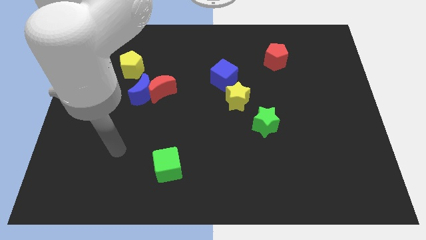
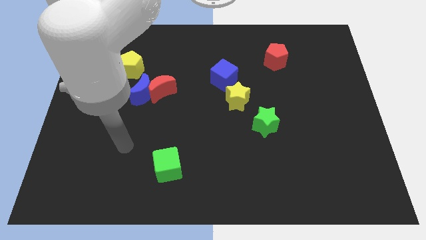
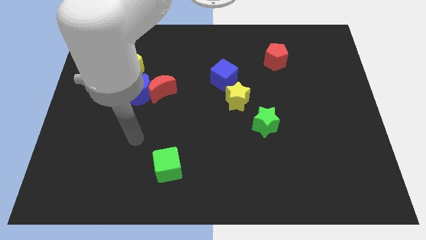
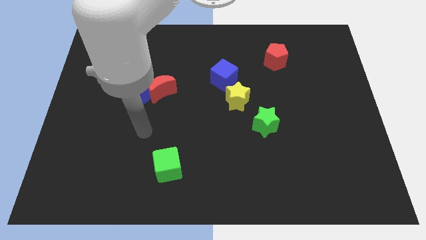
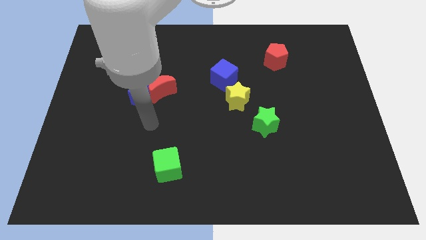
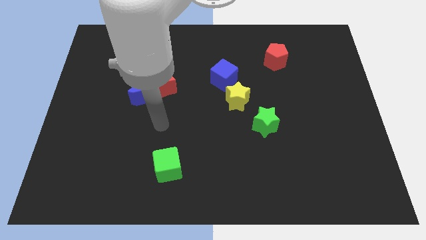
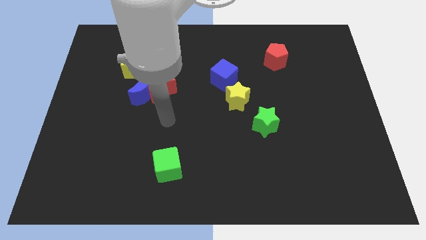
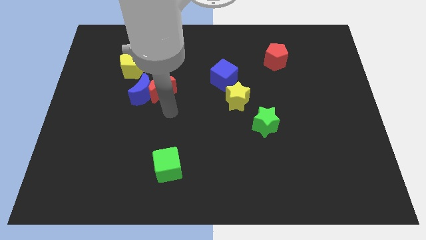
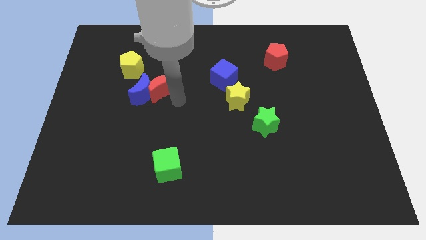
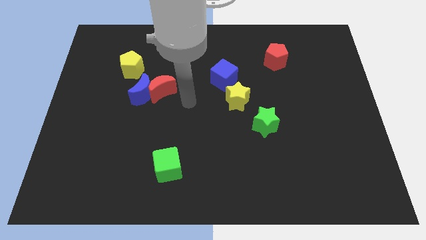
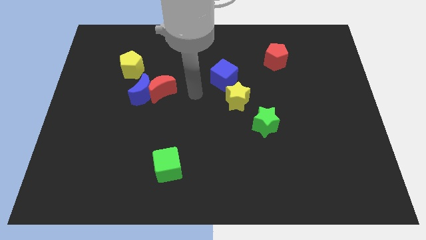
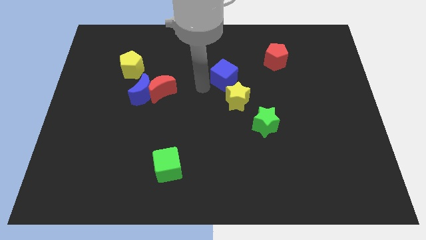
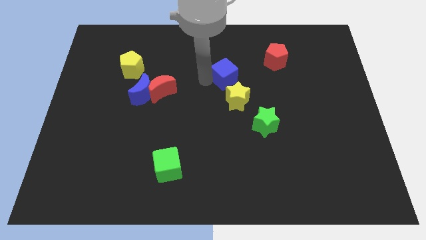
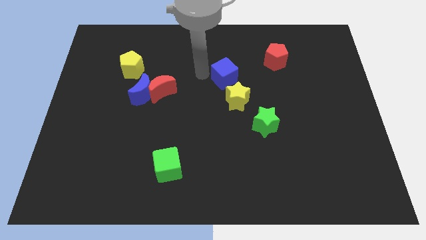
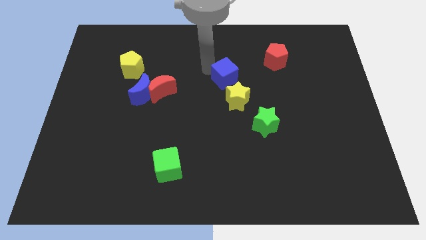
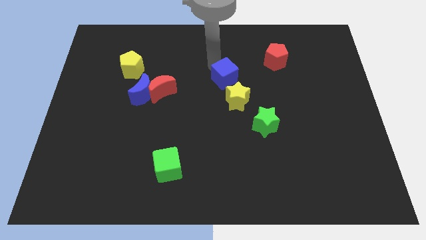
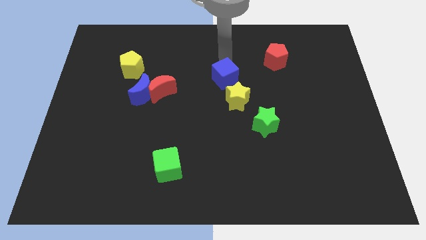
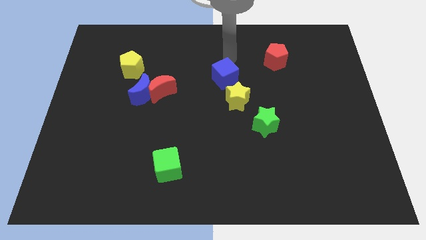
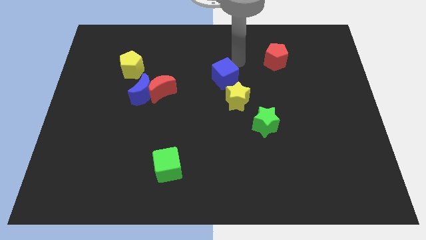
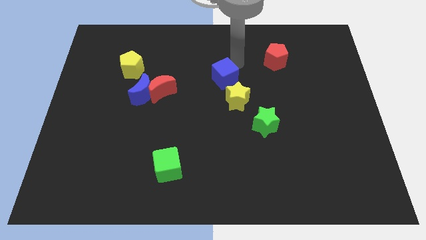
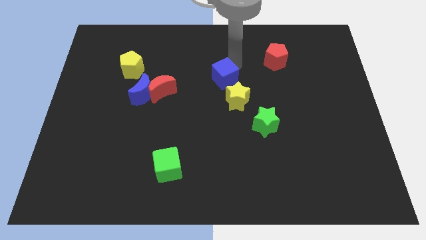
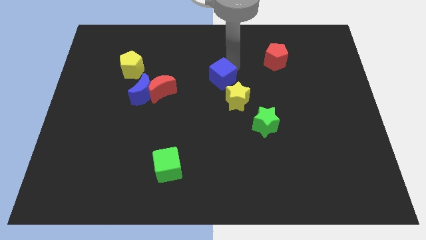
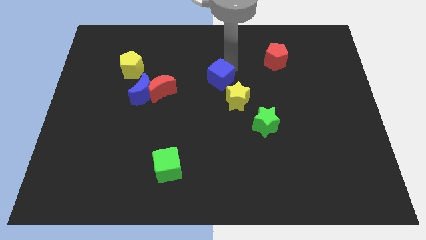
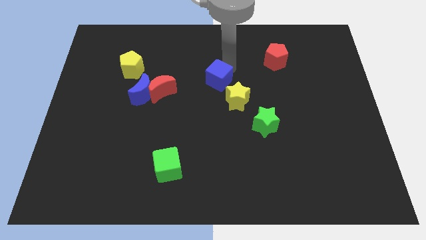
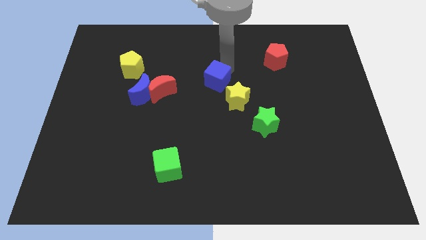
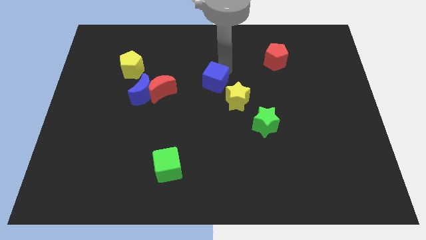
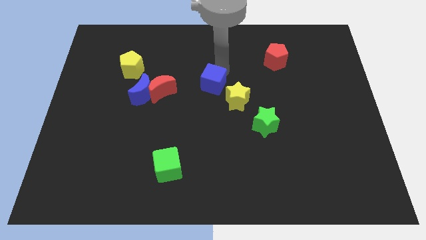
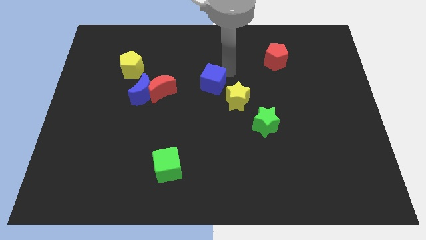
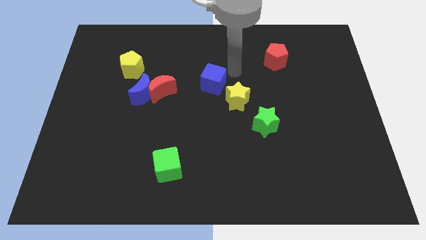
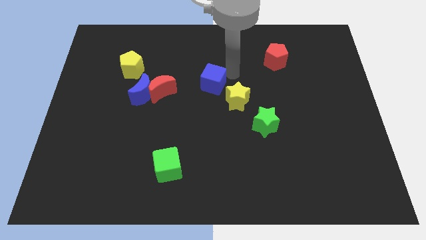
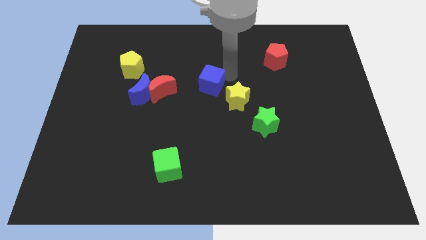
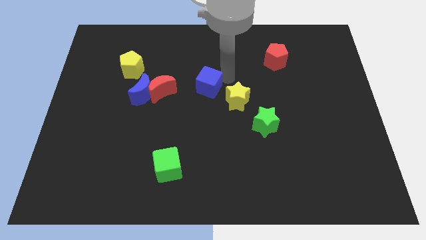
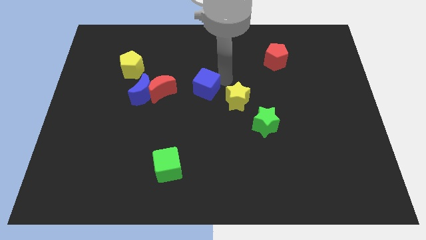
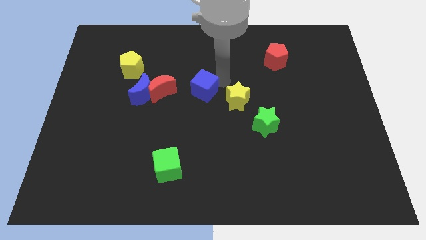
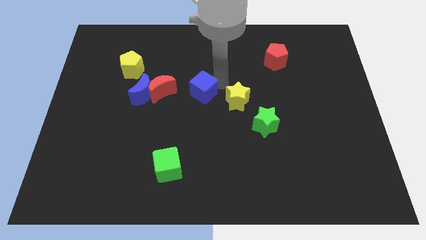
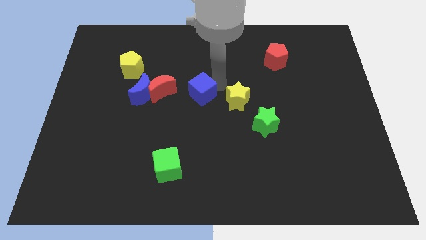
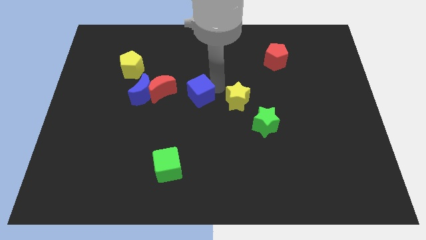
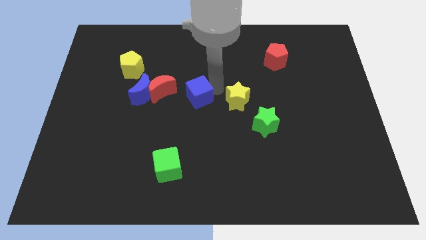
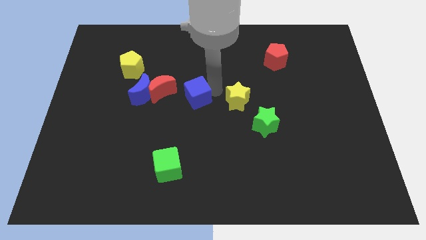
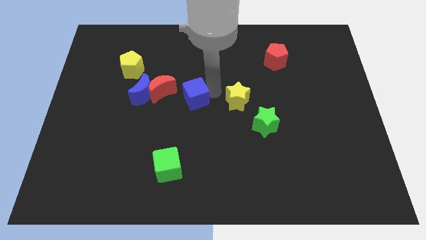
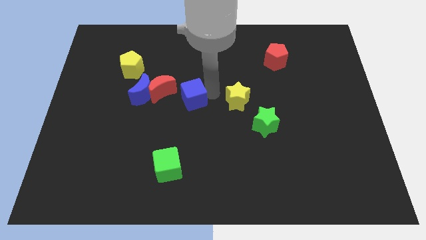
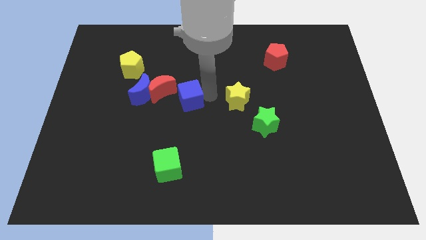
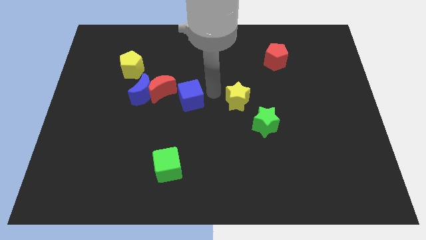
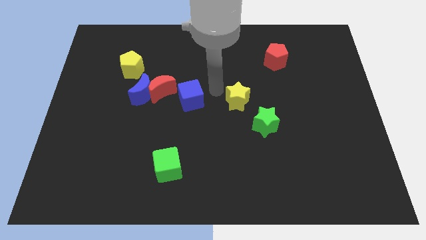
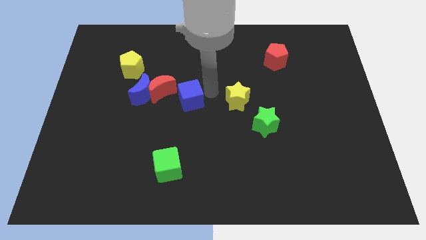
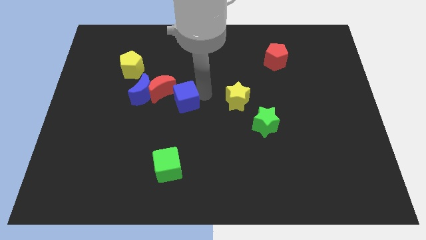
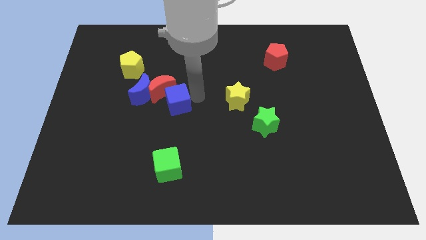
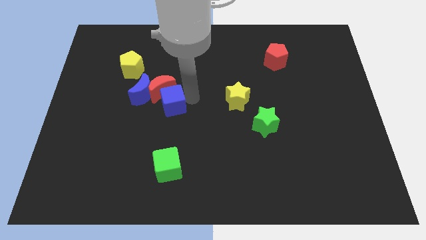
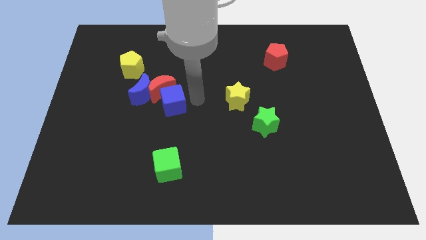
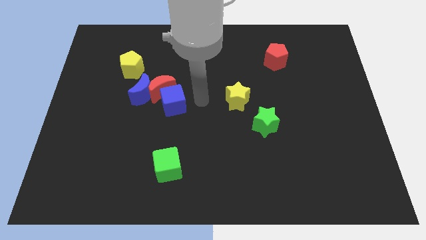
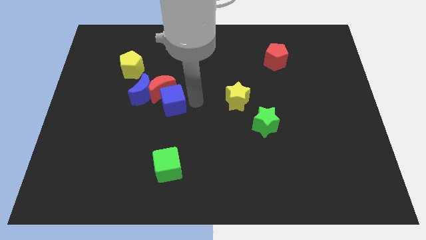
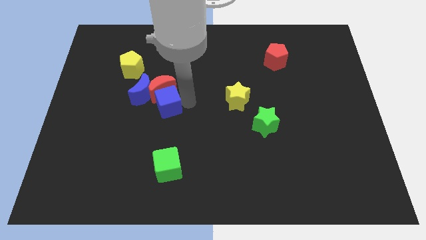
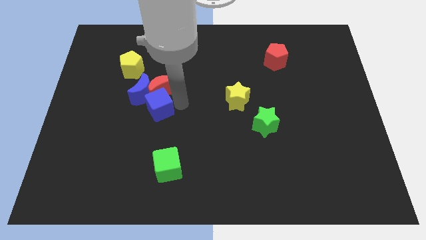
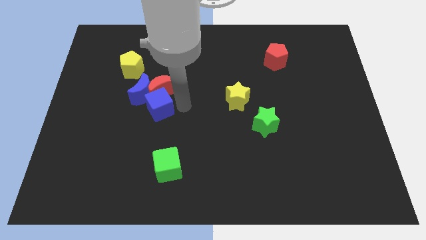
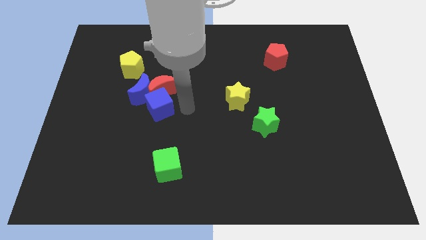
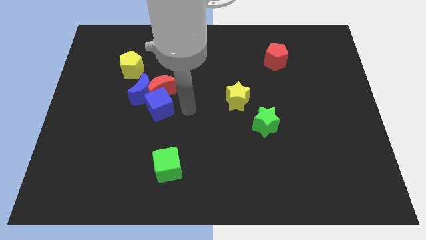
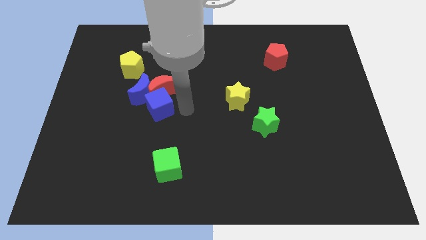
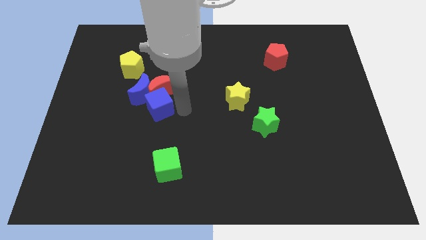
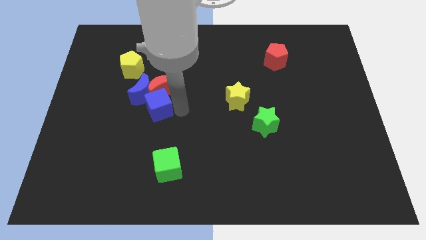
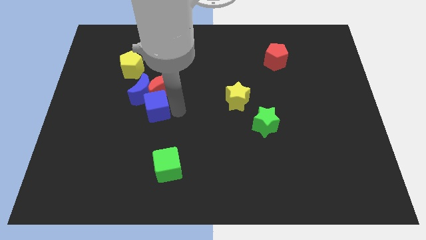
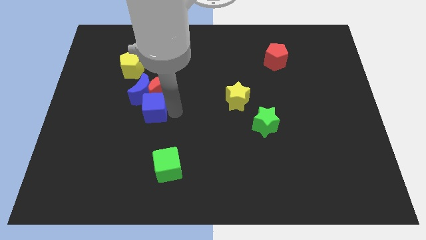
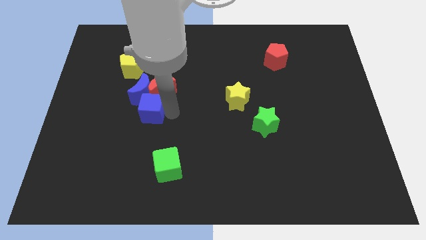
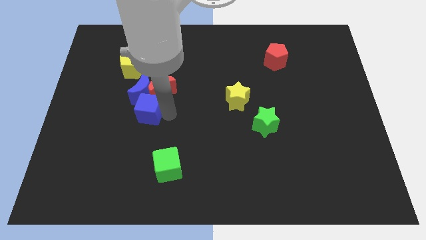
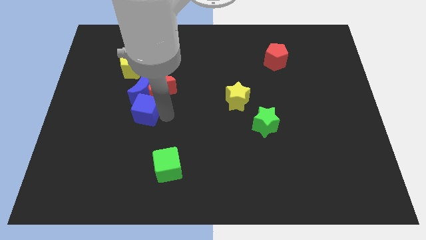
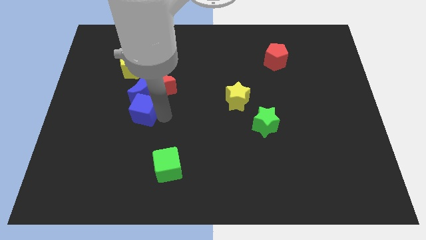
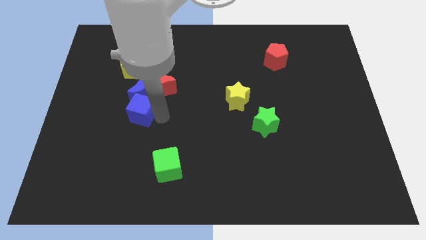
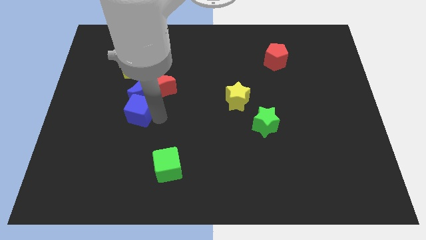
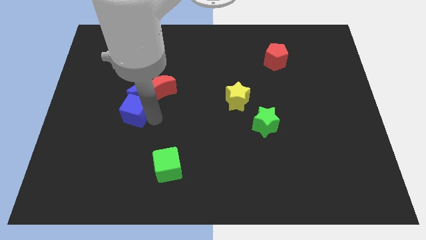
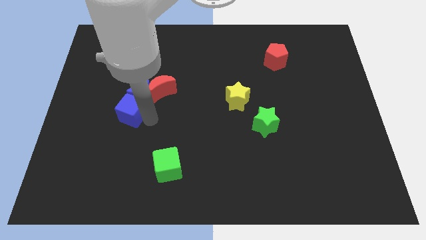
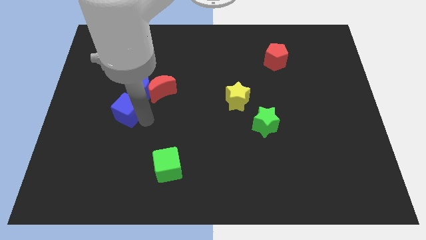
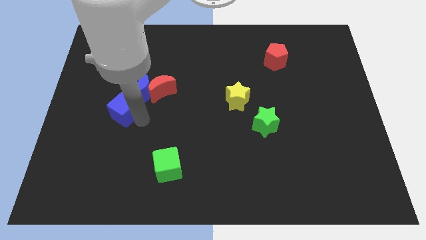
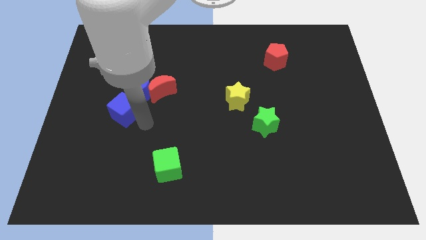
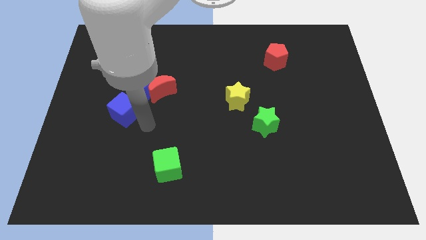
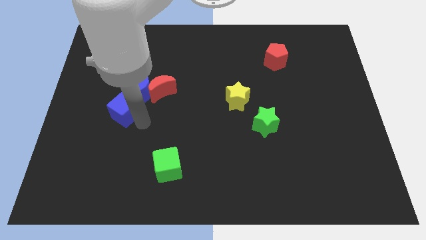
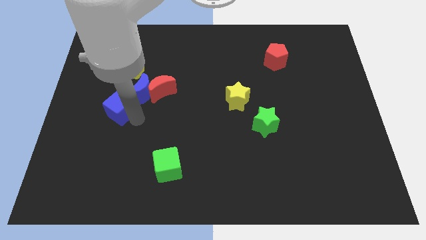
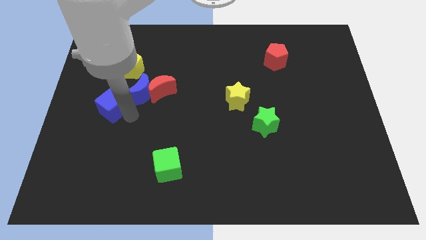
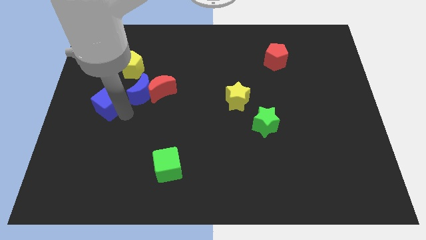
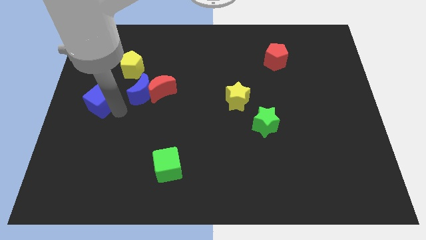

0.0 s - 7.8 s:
put the blue cube to the left side of the board
